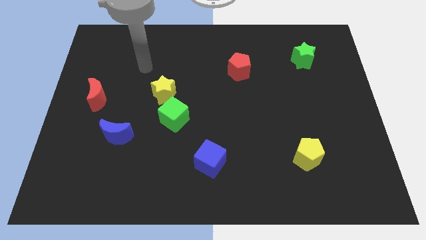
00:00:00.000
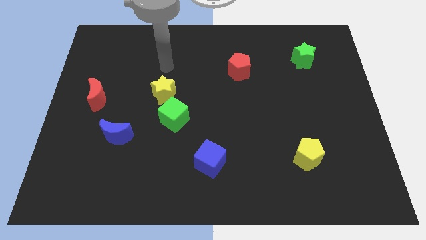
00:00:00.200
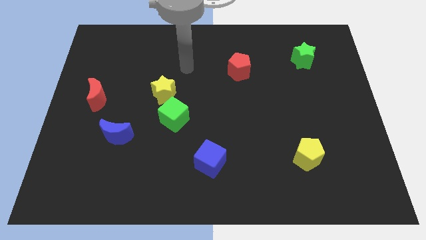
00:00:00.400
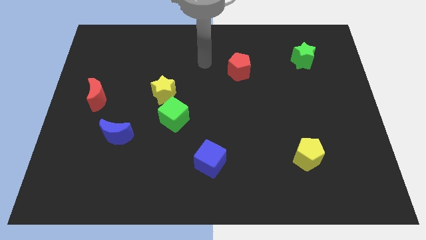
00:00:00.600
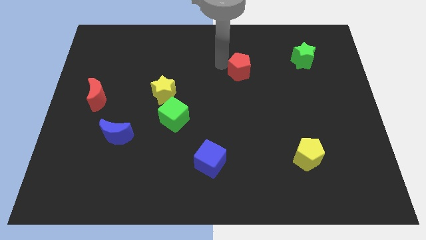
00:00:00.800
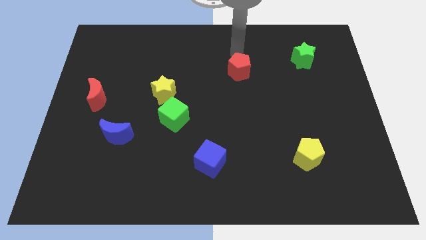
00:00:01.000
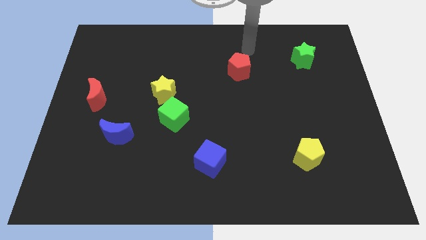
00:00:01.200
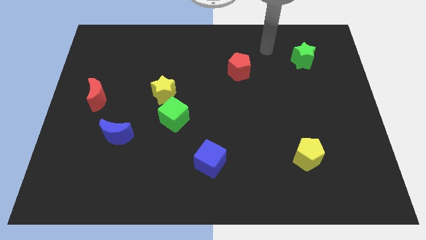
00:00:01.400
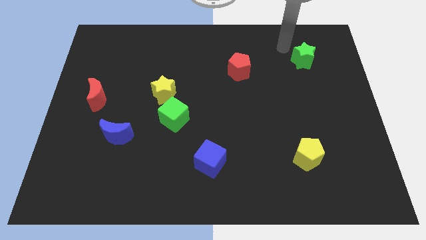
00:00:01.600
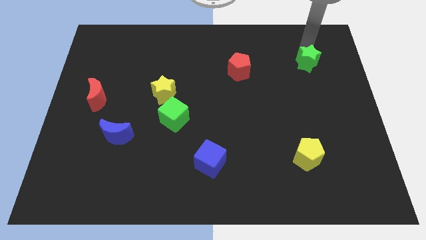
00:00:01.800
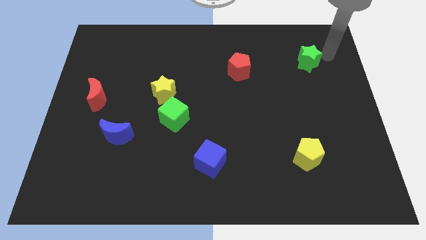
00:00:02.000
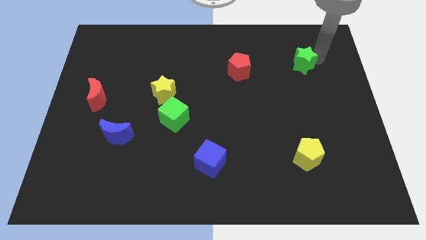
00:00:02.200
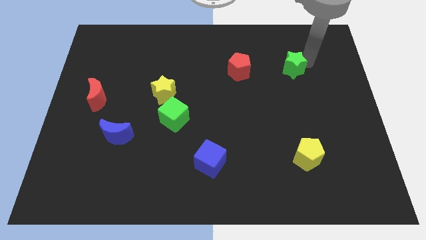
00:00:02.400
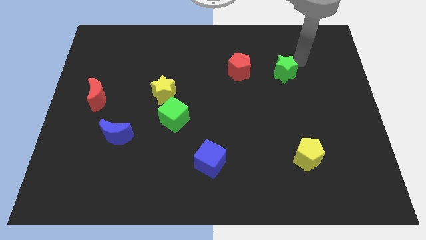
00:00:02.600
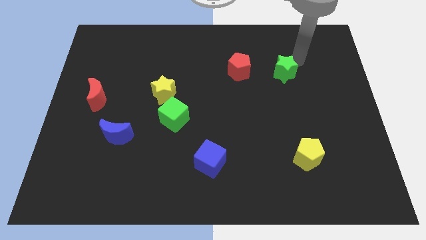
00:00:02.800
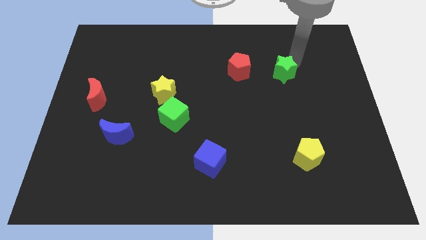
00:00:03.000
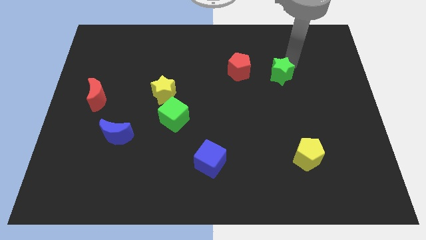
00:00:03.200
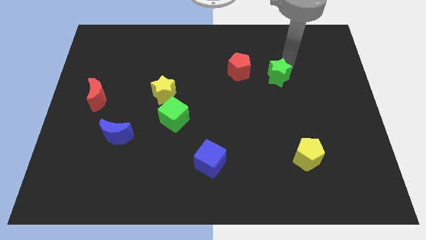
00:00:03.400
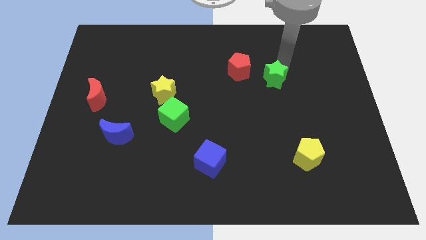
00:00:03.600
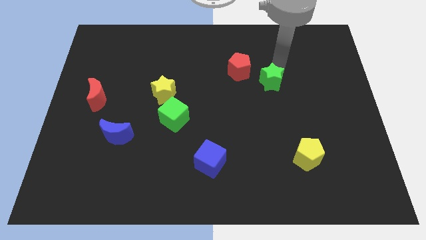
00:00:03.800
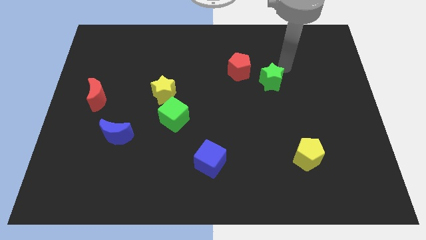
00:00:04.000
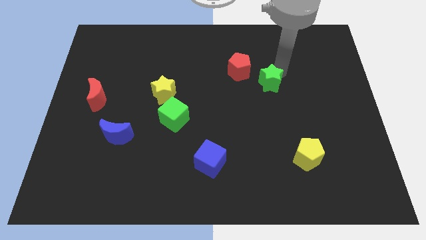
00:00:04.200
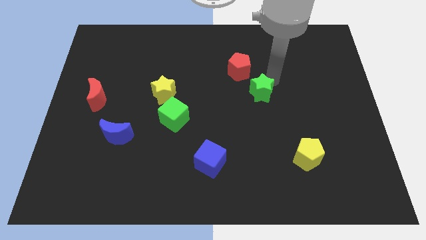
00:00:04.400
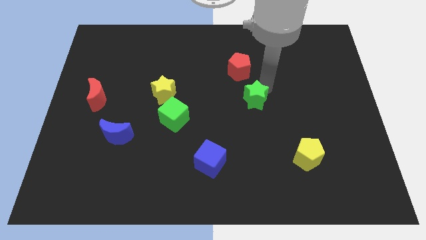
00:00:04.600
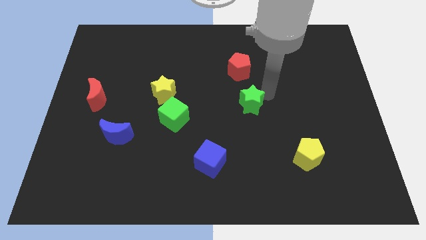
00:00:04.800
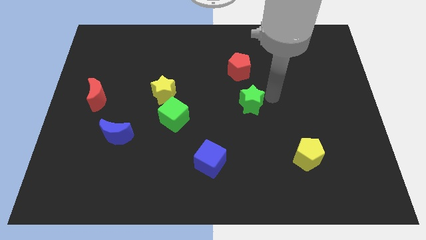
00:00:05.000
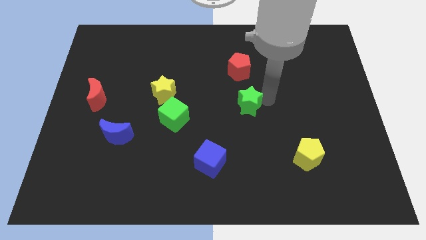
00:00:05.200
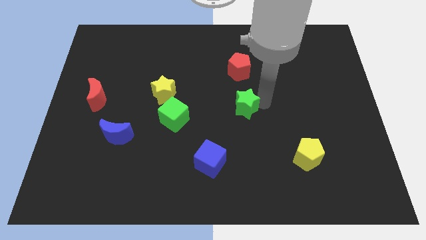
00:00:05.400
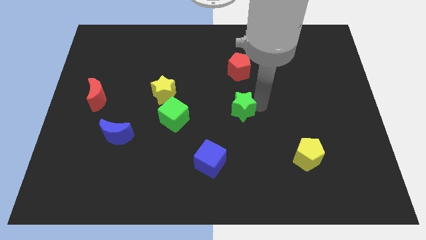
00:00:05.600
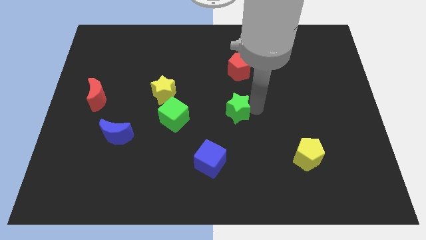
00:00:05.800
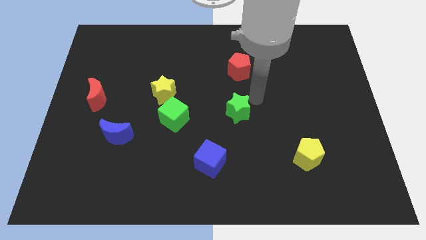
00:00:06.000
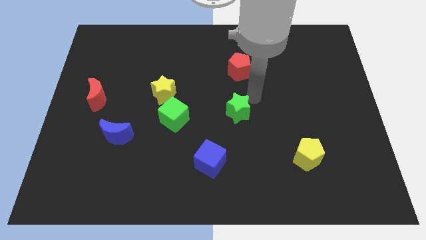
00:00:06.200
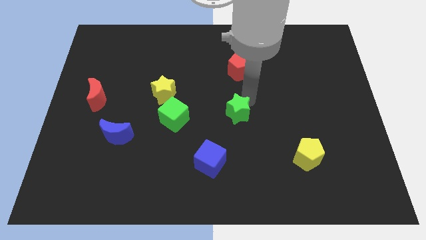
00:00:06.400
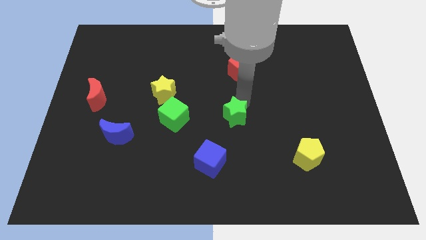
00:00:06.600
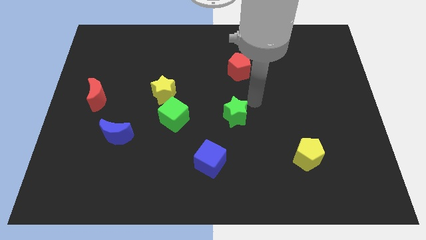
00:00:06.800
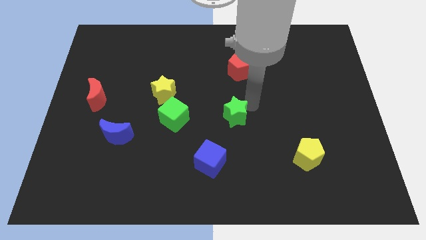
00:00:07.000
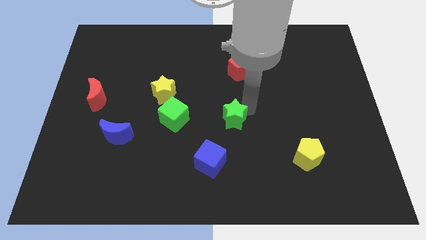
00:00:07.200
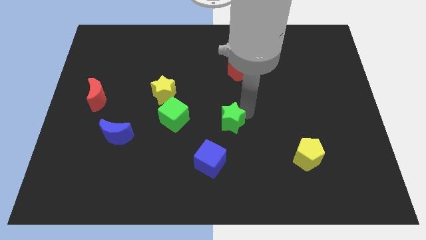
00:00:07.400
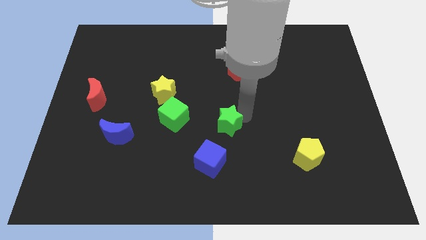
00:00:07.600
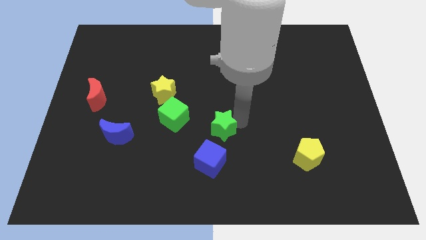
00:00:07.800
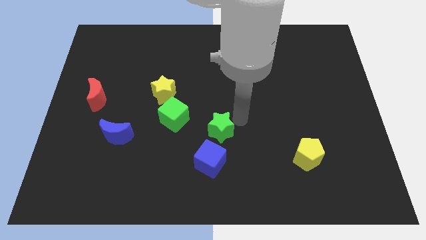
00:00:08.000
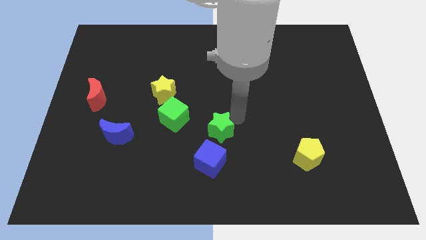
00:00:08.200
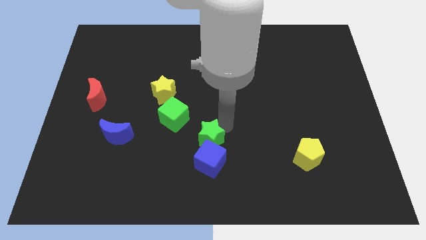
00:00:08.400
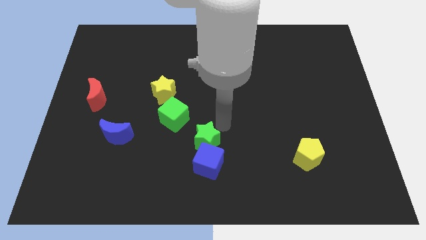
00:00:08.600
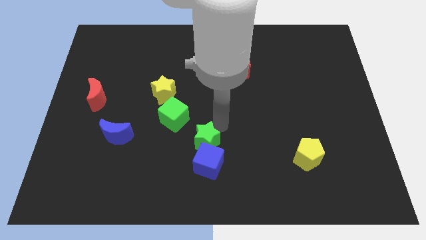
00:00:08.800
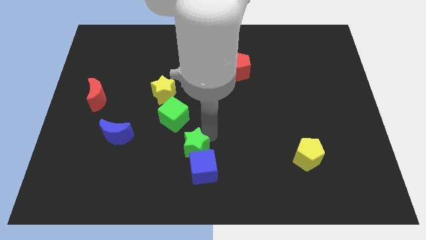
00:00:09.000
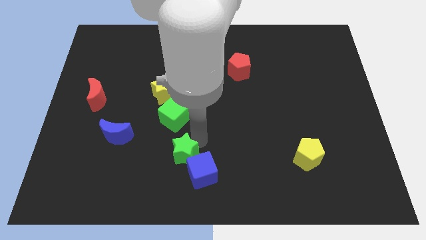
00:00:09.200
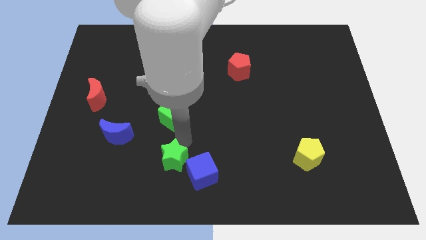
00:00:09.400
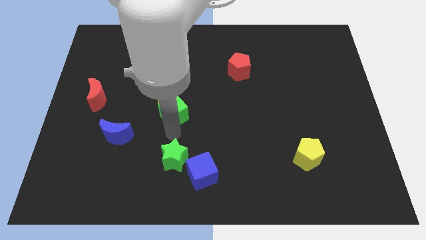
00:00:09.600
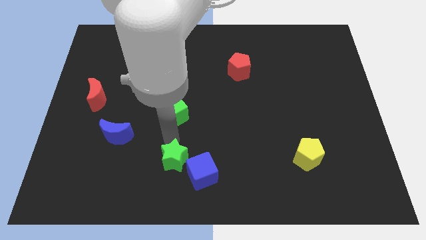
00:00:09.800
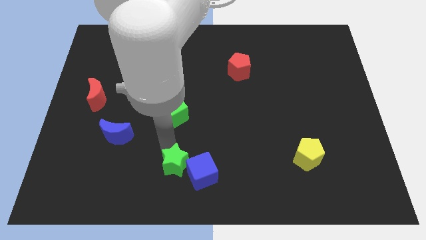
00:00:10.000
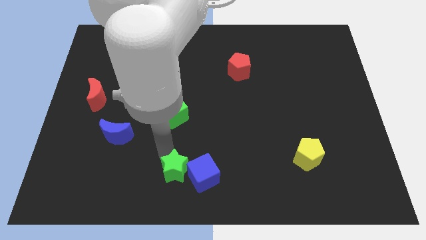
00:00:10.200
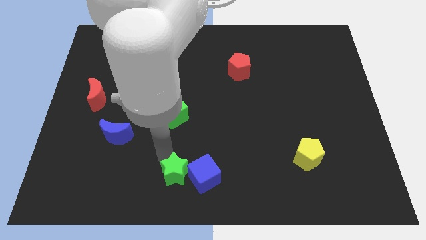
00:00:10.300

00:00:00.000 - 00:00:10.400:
move the green star diagonally down and to the left of the blue cube

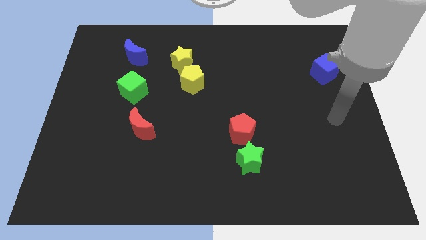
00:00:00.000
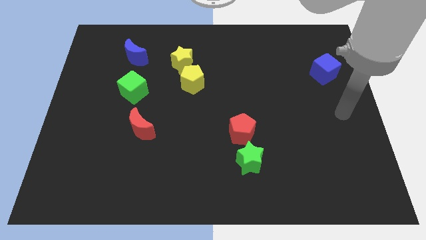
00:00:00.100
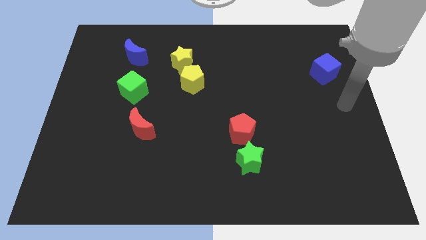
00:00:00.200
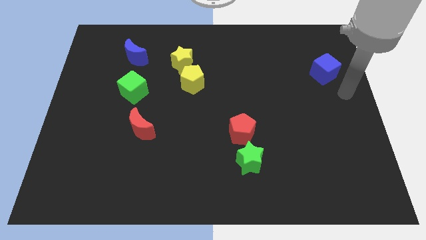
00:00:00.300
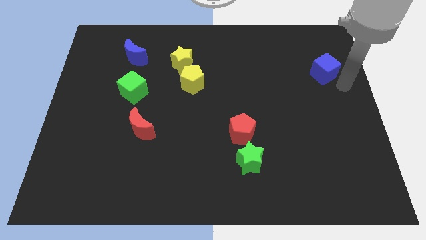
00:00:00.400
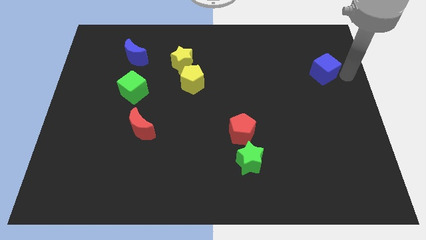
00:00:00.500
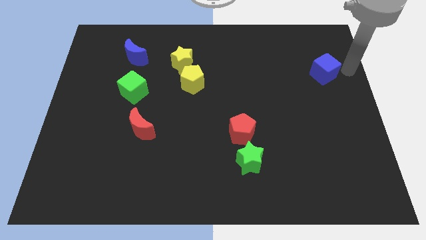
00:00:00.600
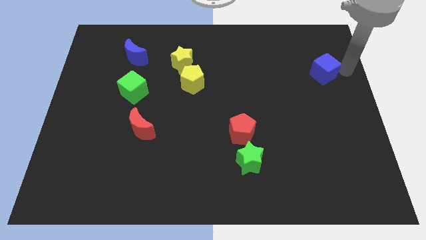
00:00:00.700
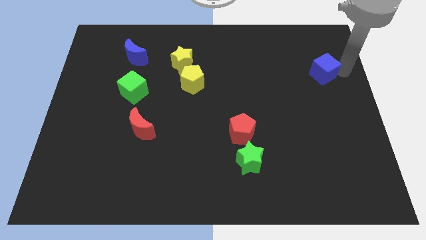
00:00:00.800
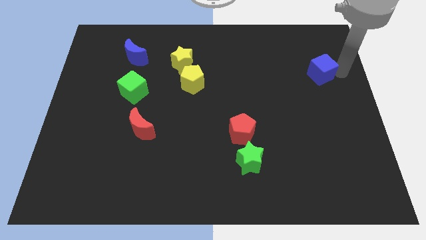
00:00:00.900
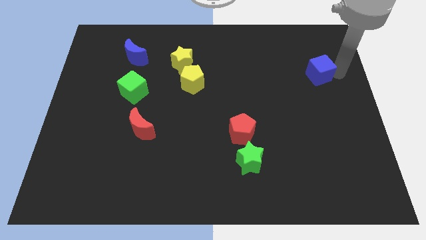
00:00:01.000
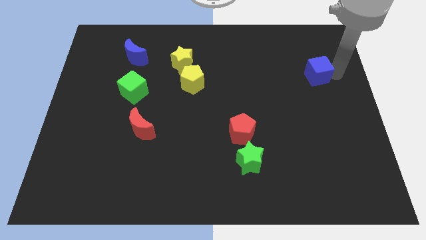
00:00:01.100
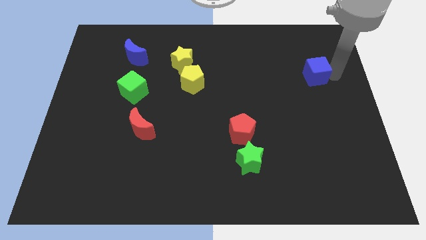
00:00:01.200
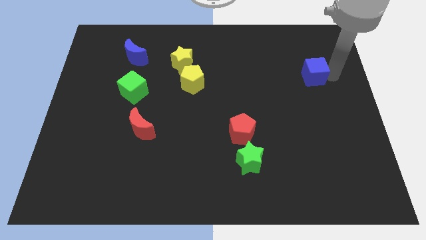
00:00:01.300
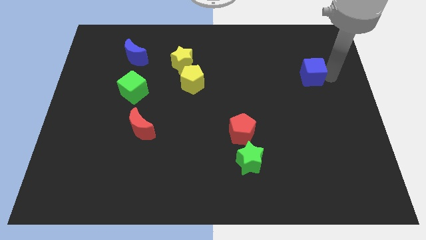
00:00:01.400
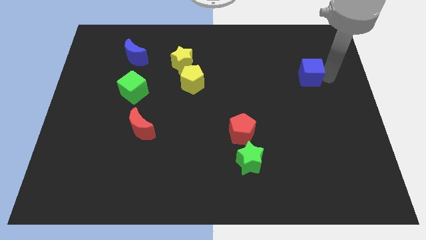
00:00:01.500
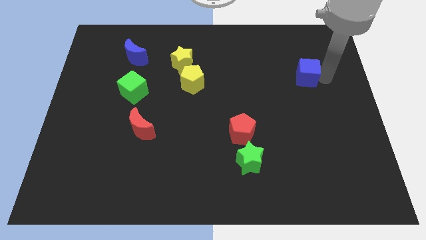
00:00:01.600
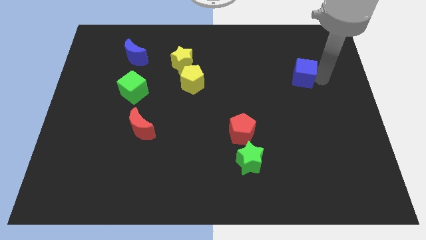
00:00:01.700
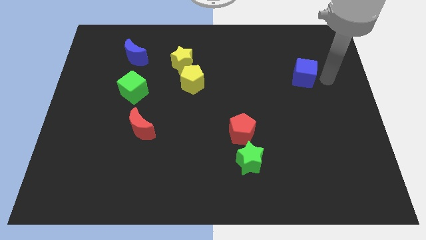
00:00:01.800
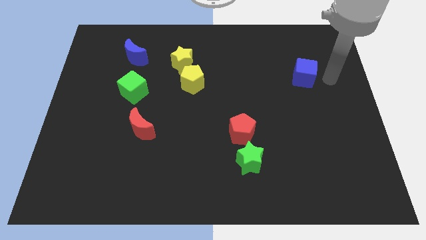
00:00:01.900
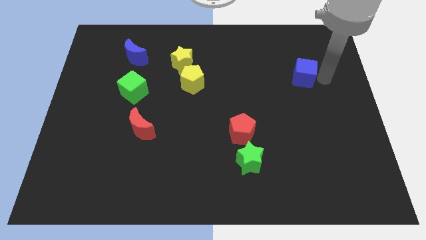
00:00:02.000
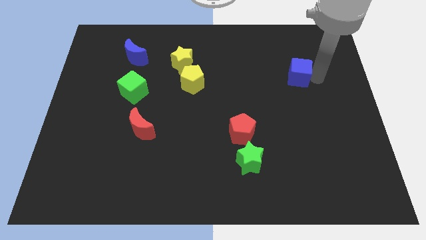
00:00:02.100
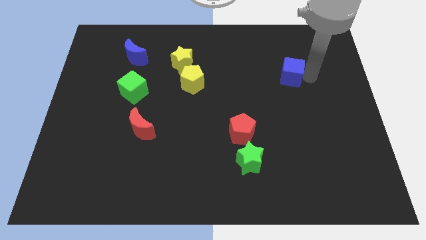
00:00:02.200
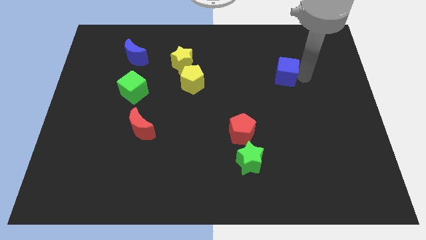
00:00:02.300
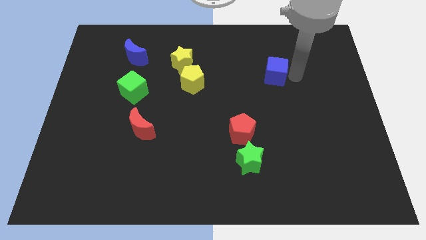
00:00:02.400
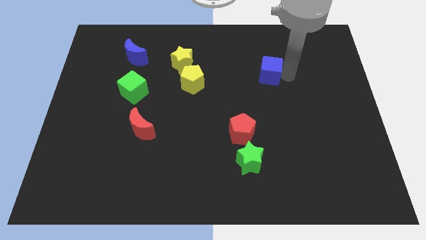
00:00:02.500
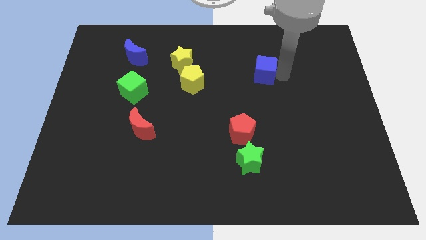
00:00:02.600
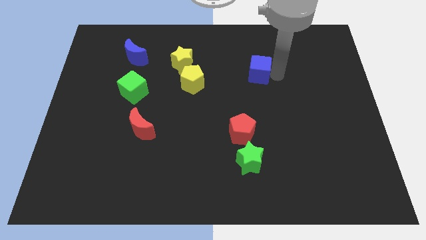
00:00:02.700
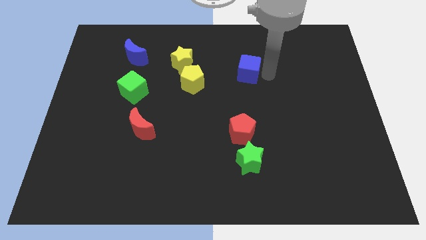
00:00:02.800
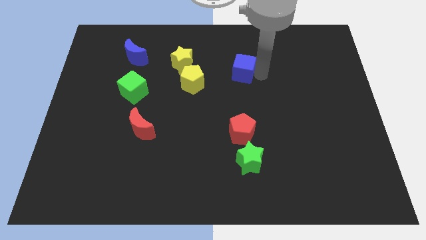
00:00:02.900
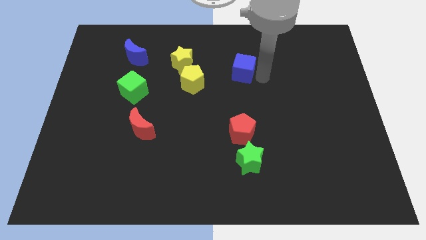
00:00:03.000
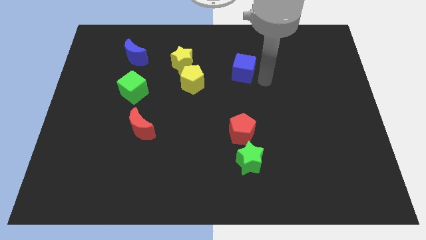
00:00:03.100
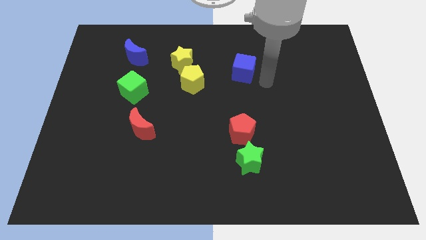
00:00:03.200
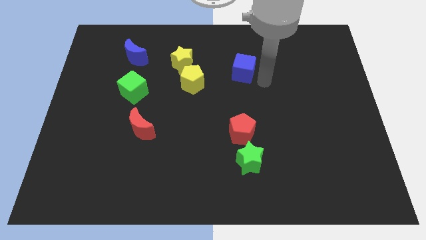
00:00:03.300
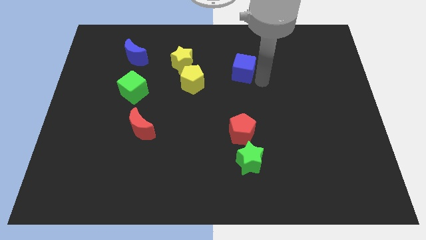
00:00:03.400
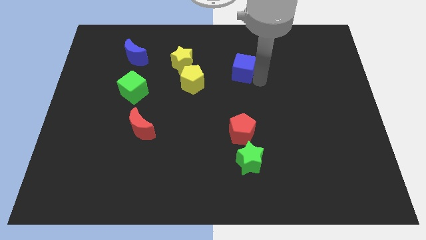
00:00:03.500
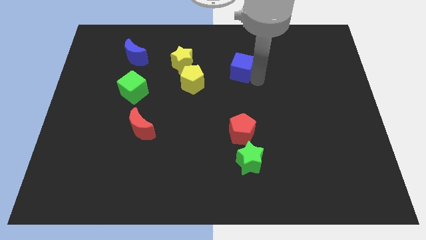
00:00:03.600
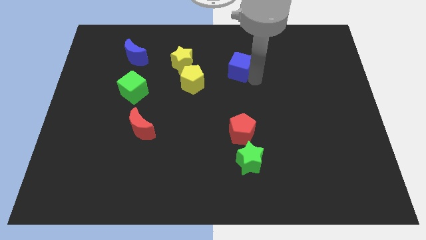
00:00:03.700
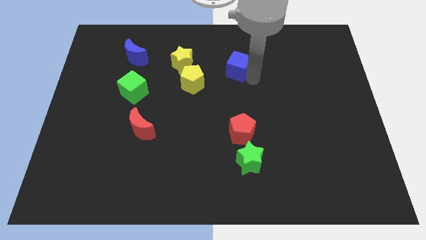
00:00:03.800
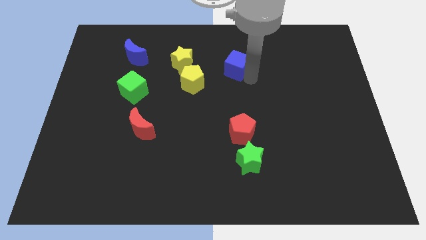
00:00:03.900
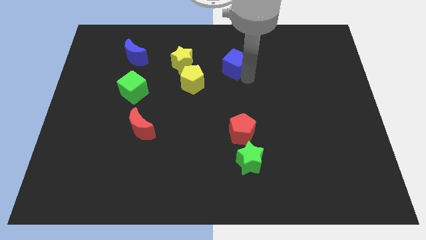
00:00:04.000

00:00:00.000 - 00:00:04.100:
push the blue cube diagonally up and to the right of the yellow pentagon
